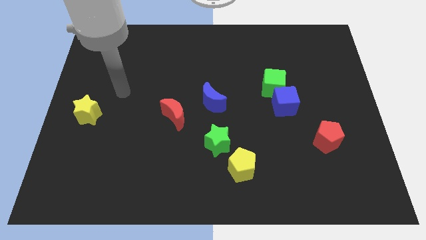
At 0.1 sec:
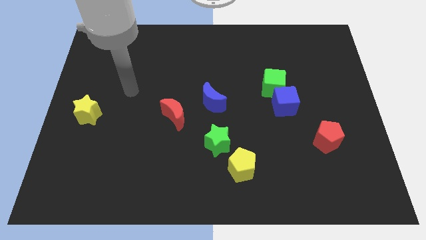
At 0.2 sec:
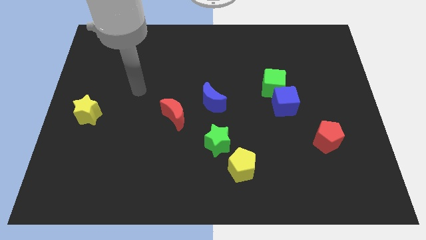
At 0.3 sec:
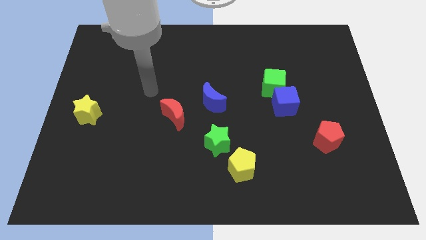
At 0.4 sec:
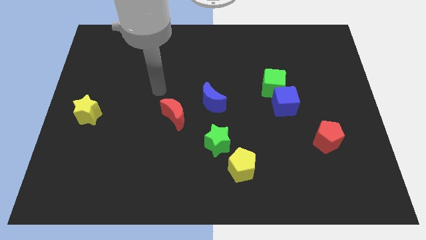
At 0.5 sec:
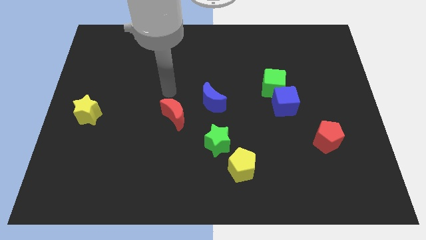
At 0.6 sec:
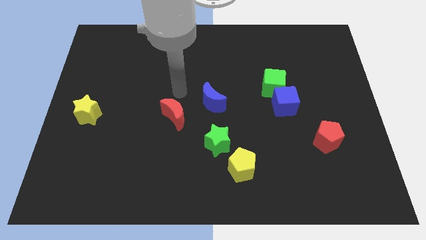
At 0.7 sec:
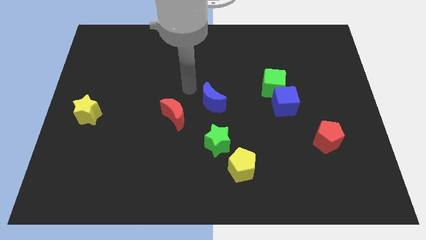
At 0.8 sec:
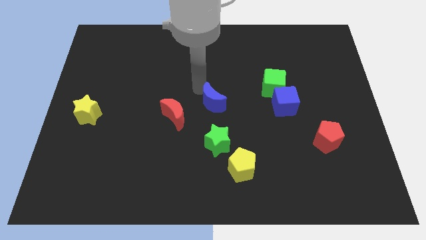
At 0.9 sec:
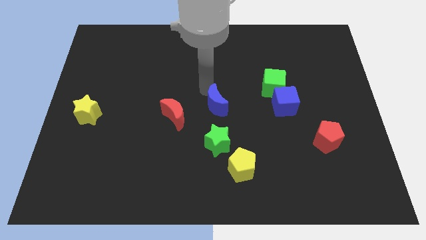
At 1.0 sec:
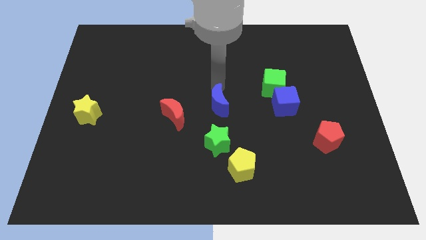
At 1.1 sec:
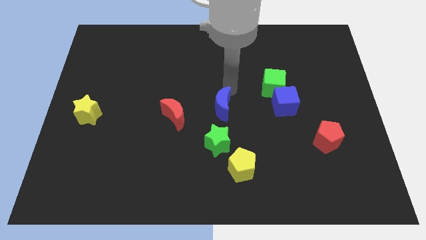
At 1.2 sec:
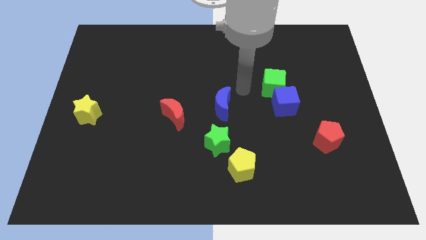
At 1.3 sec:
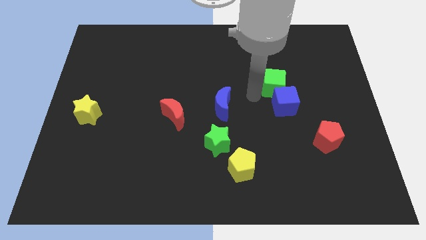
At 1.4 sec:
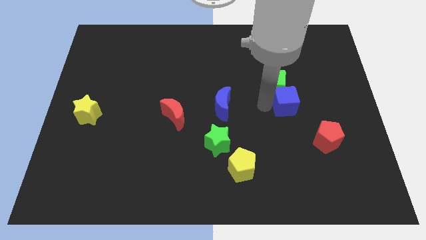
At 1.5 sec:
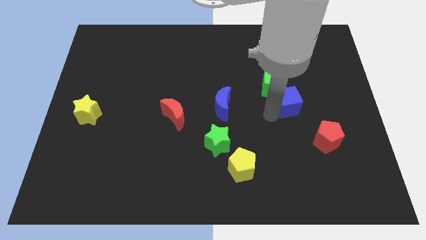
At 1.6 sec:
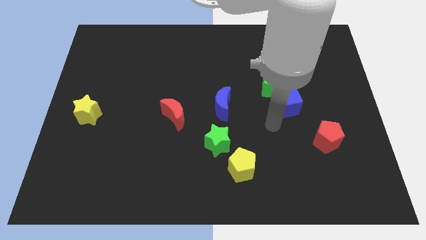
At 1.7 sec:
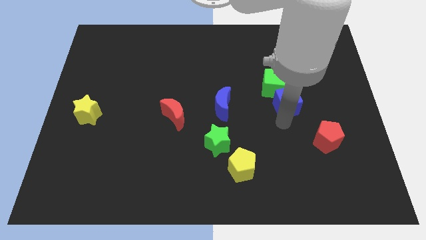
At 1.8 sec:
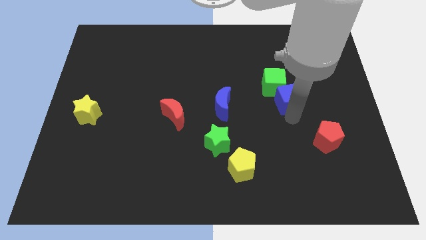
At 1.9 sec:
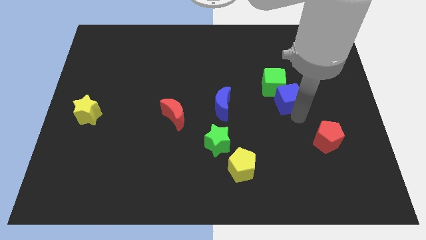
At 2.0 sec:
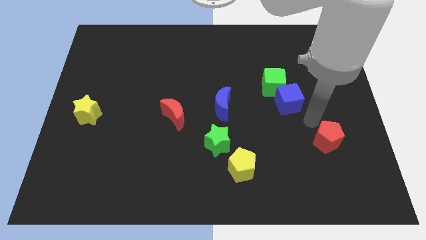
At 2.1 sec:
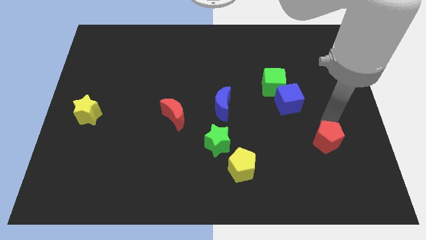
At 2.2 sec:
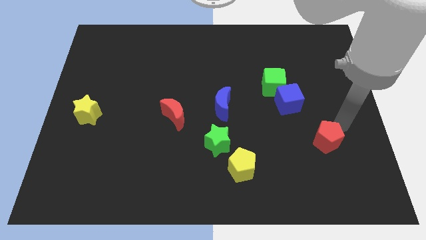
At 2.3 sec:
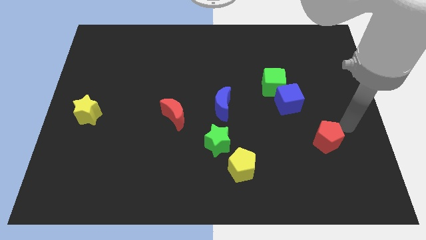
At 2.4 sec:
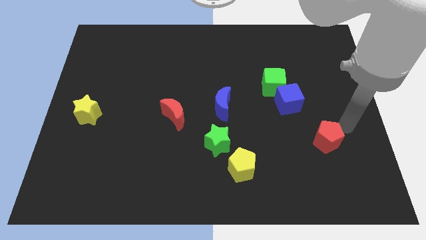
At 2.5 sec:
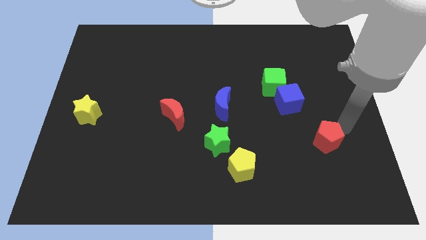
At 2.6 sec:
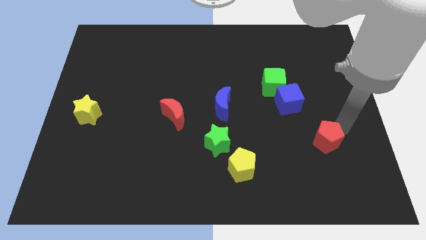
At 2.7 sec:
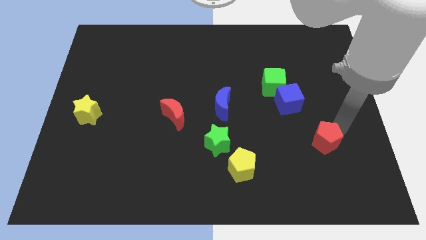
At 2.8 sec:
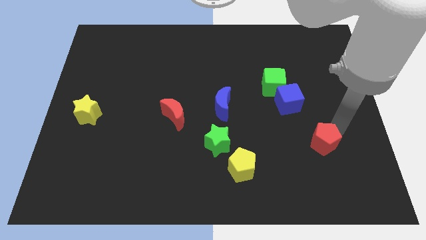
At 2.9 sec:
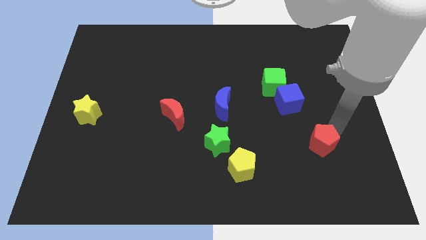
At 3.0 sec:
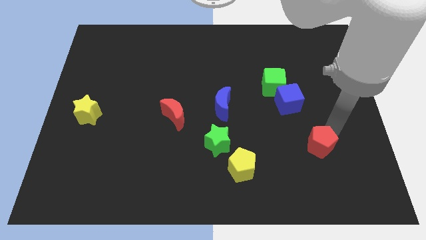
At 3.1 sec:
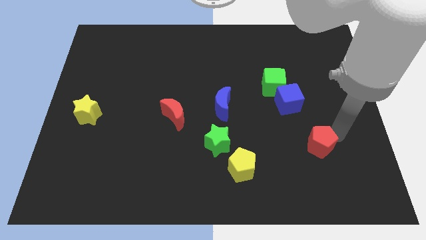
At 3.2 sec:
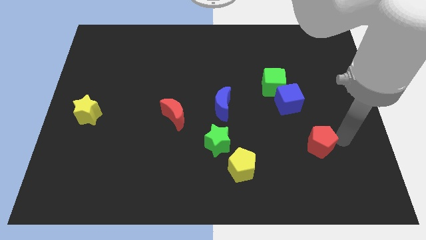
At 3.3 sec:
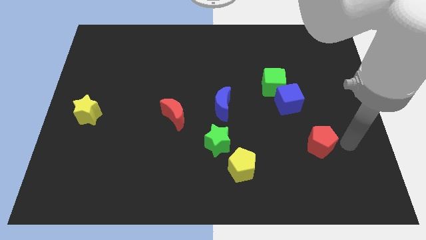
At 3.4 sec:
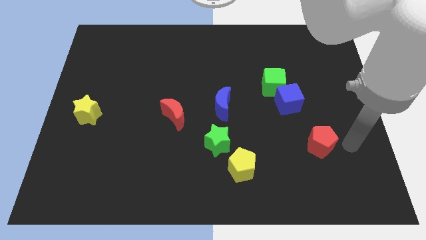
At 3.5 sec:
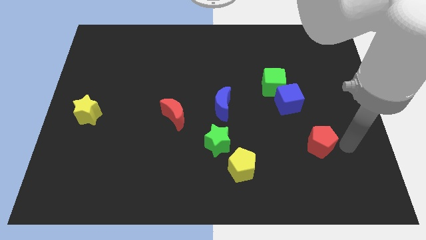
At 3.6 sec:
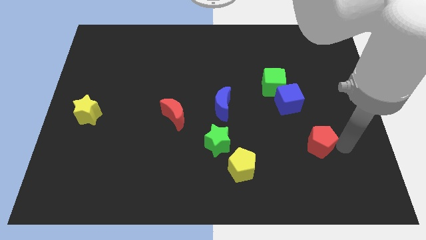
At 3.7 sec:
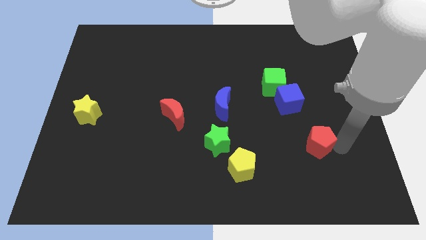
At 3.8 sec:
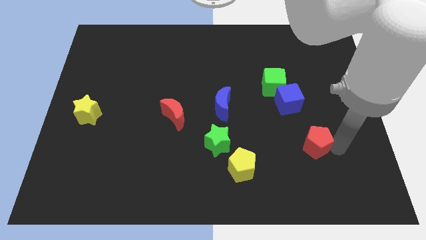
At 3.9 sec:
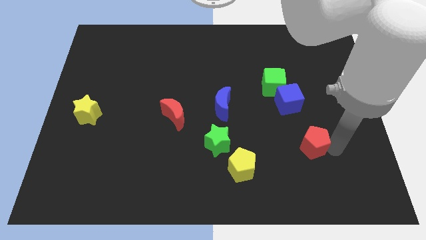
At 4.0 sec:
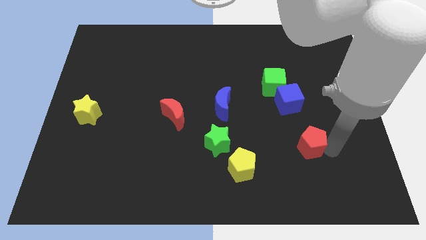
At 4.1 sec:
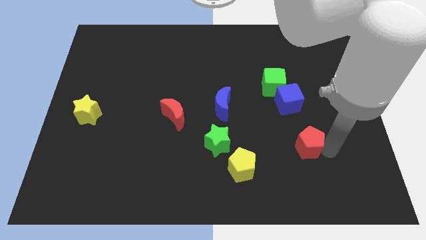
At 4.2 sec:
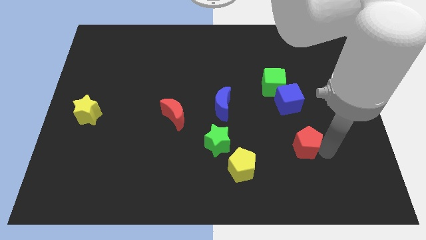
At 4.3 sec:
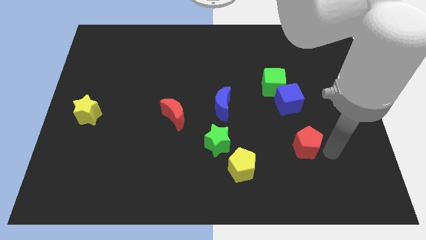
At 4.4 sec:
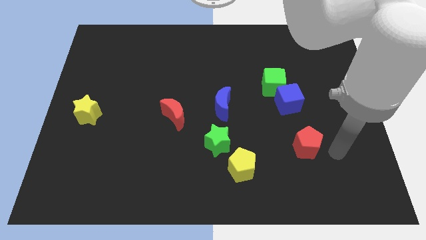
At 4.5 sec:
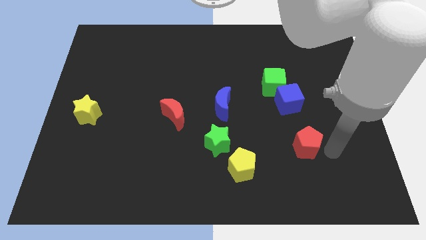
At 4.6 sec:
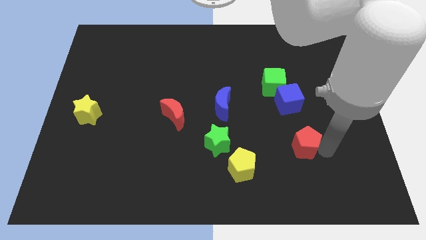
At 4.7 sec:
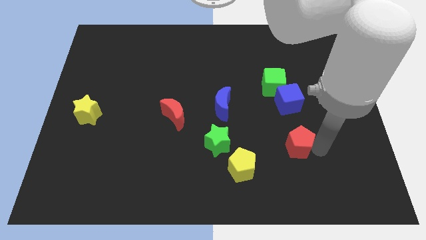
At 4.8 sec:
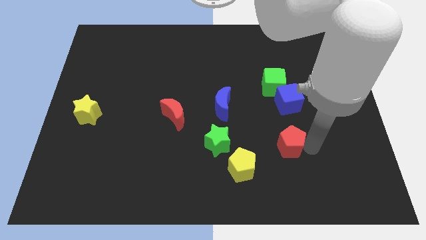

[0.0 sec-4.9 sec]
slightly slide the red pentagon to the left

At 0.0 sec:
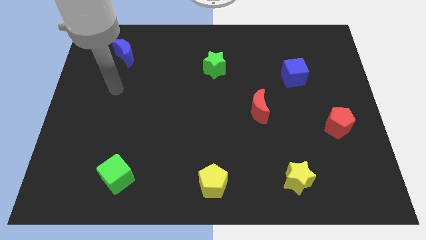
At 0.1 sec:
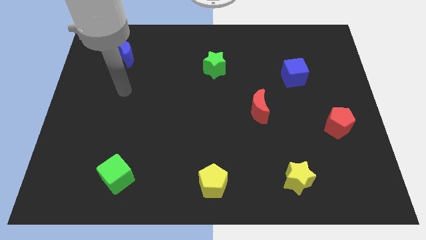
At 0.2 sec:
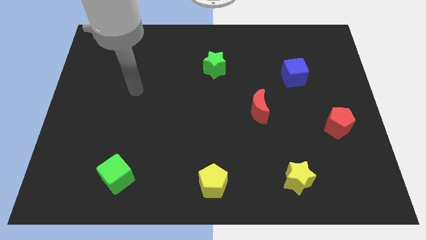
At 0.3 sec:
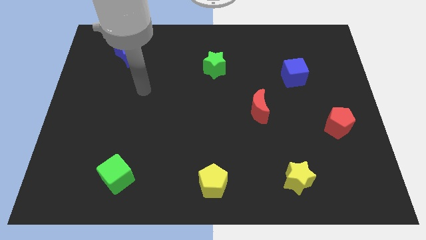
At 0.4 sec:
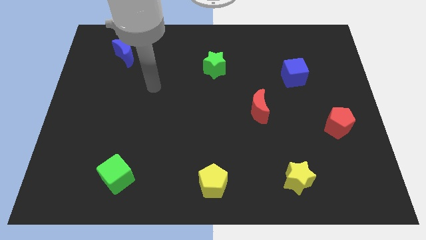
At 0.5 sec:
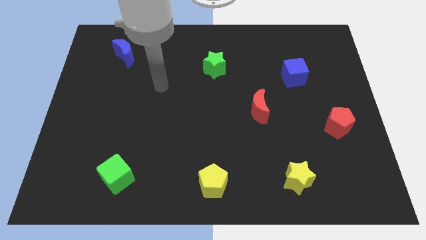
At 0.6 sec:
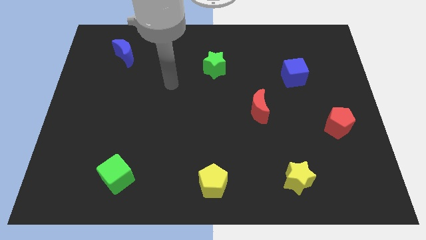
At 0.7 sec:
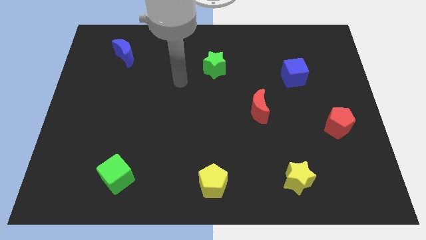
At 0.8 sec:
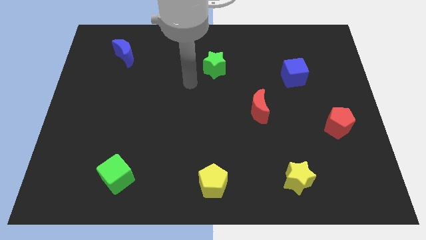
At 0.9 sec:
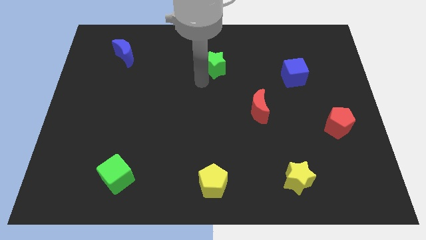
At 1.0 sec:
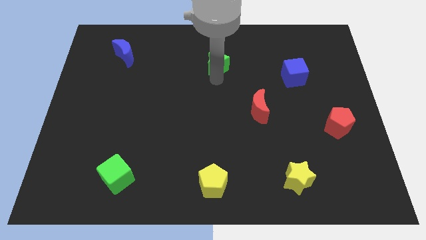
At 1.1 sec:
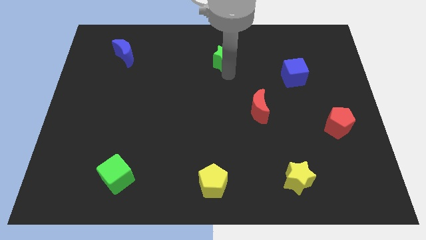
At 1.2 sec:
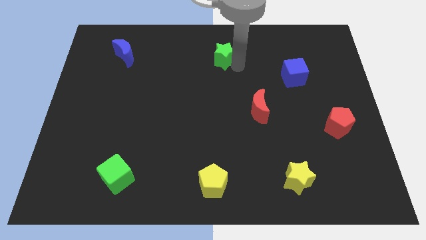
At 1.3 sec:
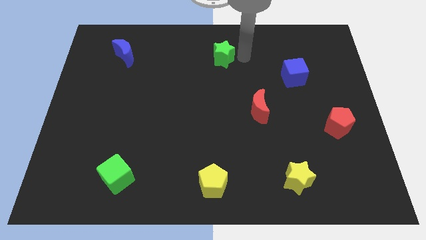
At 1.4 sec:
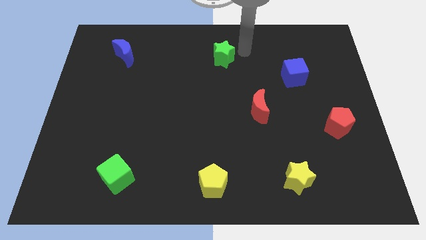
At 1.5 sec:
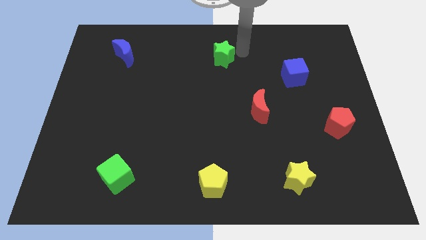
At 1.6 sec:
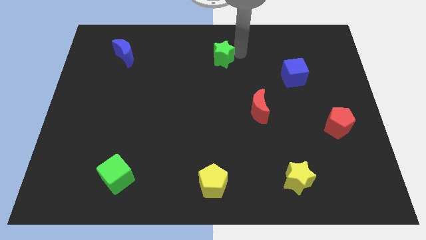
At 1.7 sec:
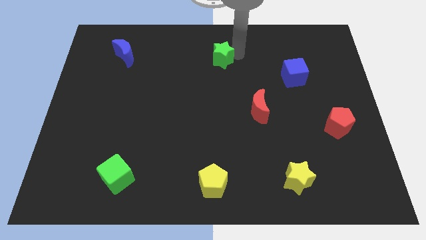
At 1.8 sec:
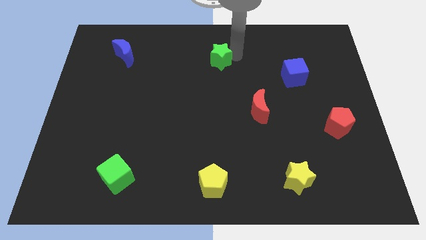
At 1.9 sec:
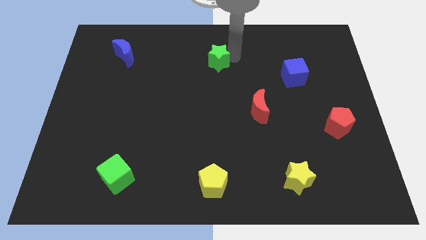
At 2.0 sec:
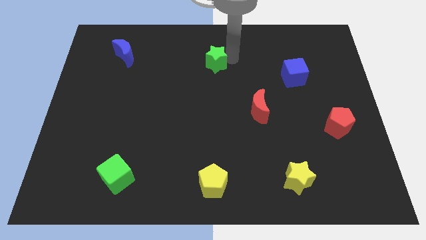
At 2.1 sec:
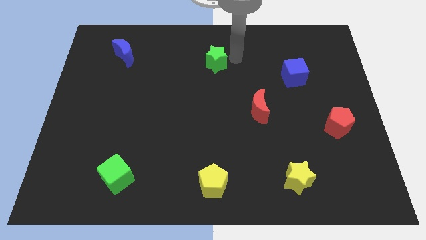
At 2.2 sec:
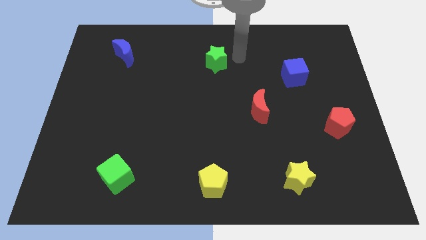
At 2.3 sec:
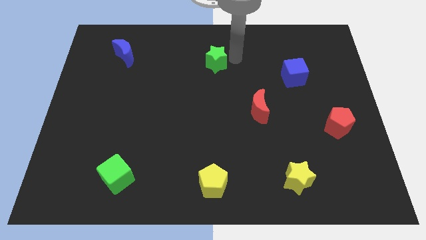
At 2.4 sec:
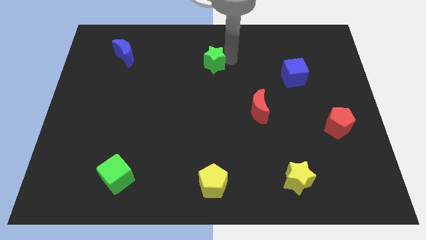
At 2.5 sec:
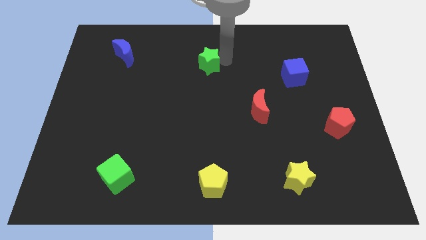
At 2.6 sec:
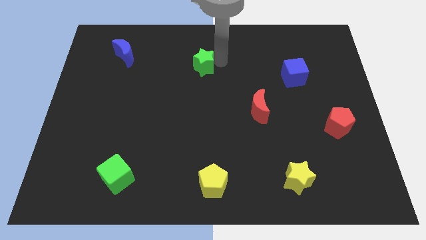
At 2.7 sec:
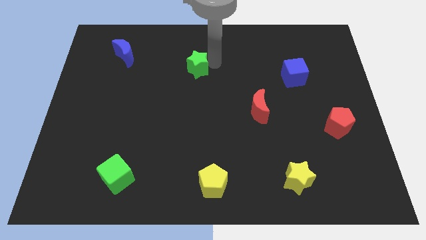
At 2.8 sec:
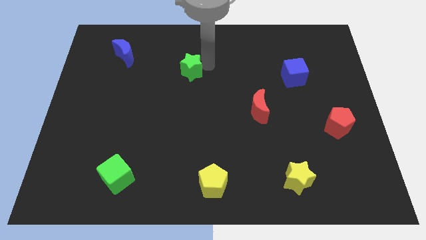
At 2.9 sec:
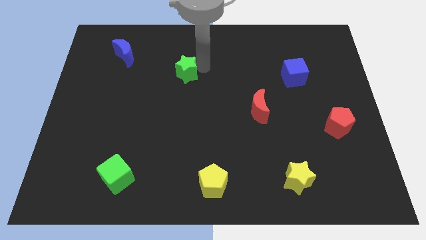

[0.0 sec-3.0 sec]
move the green star somewhat left
